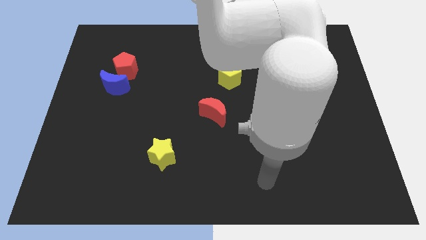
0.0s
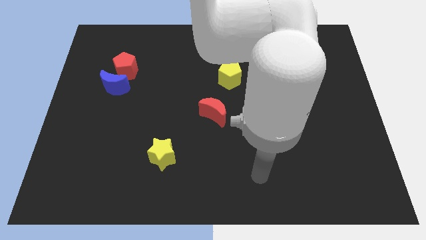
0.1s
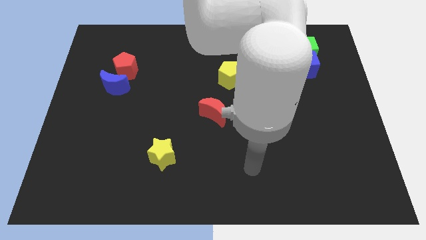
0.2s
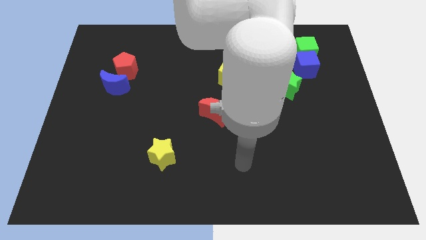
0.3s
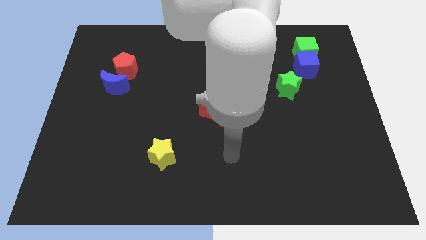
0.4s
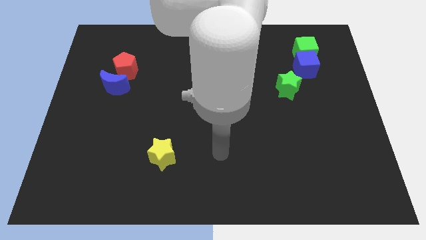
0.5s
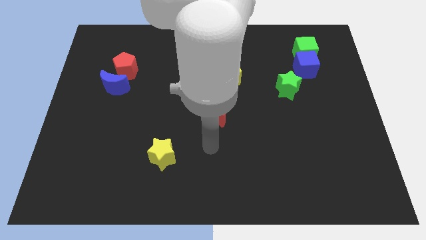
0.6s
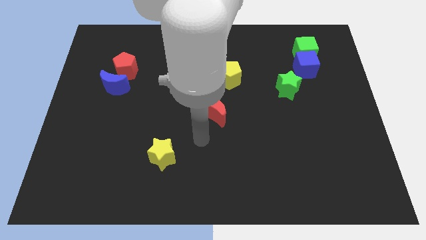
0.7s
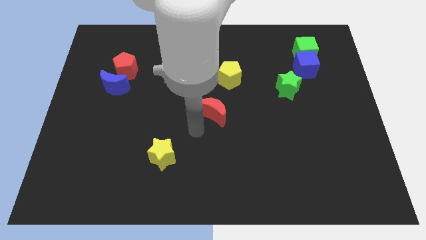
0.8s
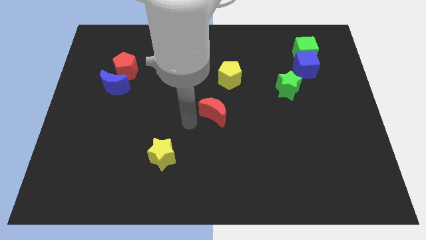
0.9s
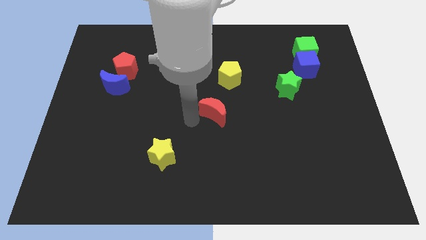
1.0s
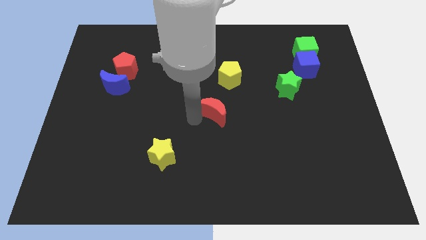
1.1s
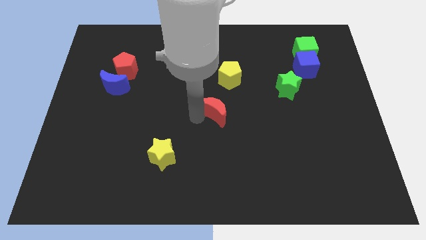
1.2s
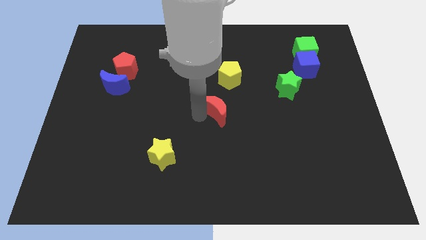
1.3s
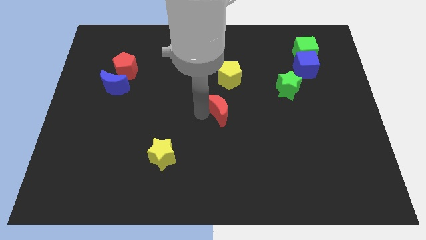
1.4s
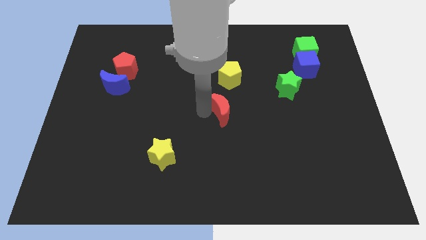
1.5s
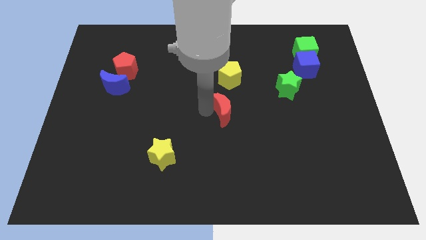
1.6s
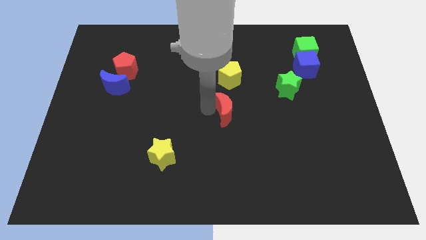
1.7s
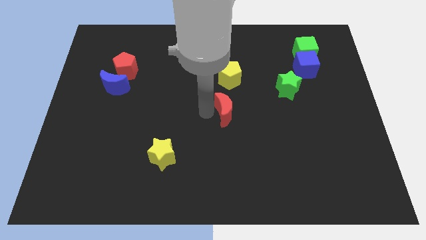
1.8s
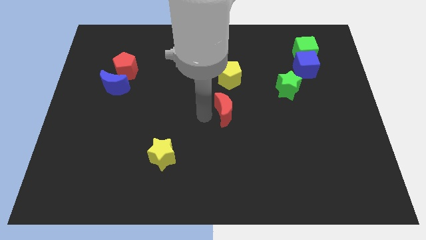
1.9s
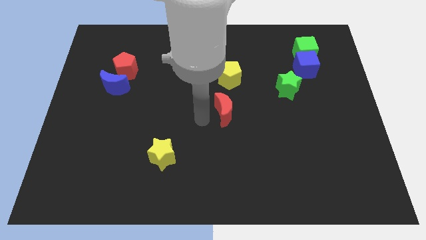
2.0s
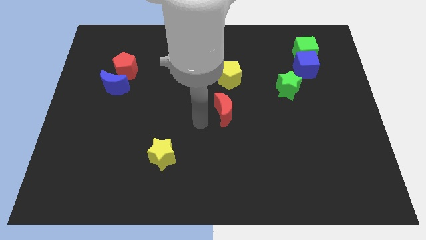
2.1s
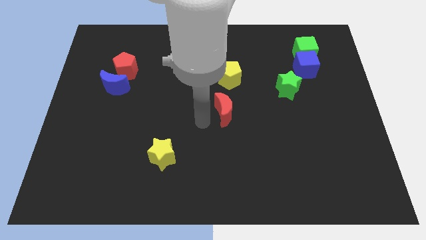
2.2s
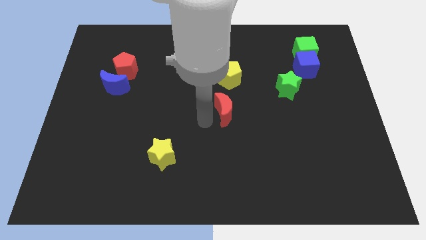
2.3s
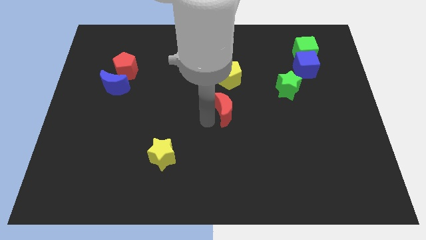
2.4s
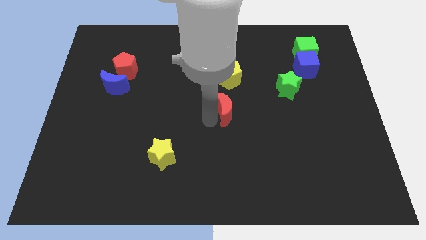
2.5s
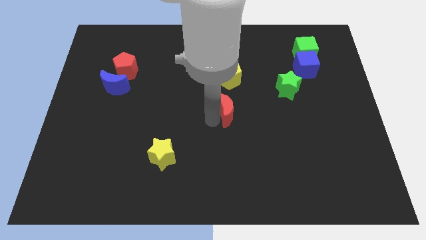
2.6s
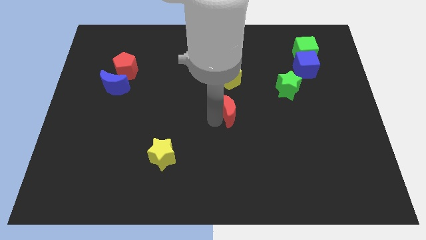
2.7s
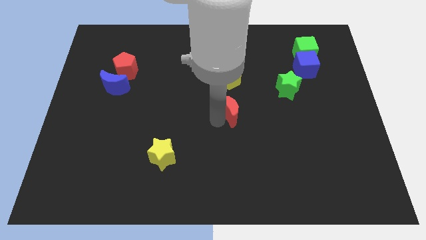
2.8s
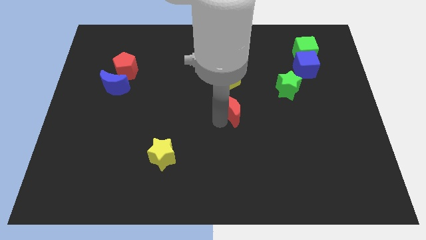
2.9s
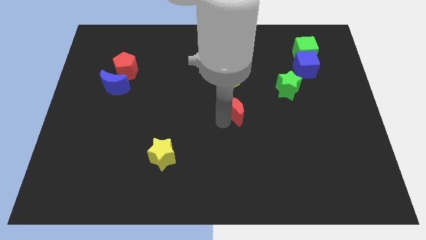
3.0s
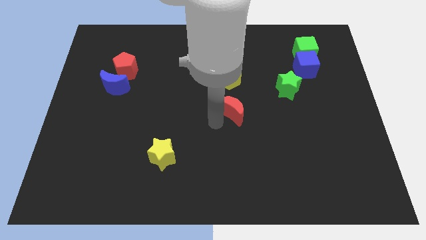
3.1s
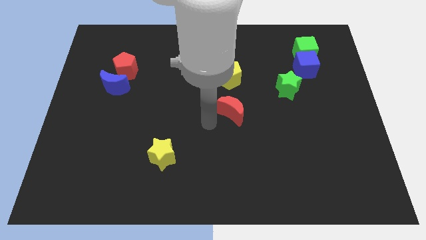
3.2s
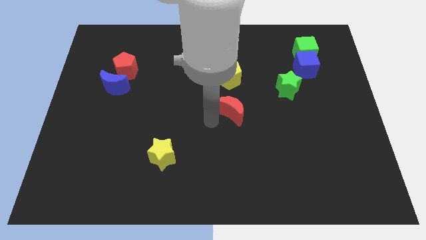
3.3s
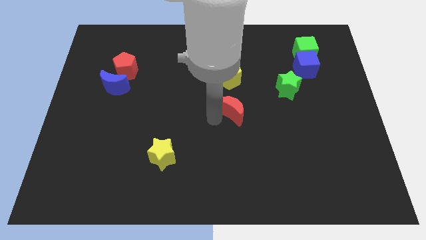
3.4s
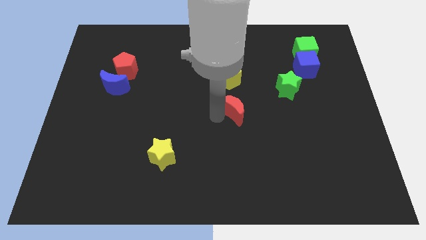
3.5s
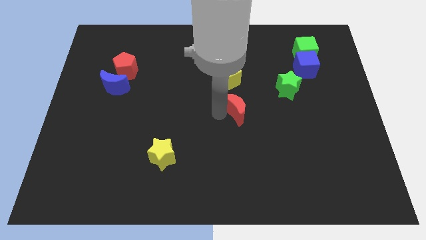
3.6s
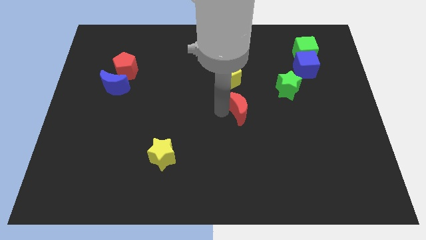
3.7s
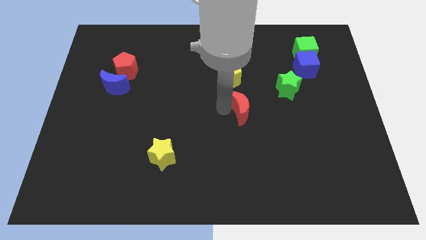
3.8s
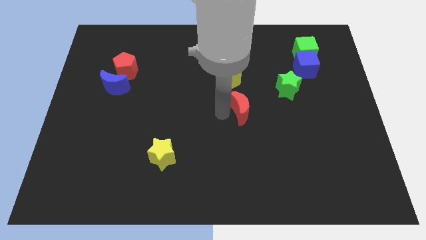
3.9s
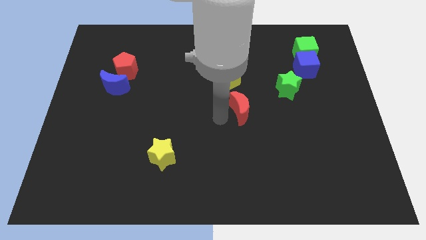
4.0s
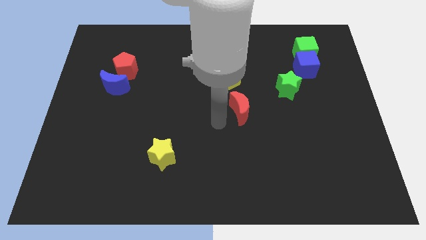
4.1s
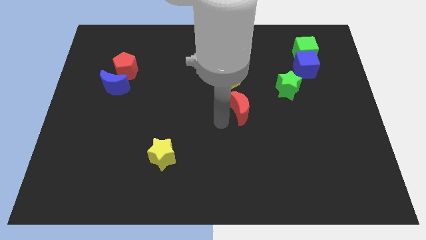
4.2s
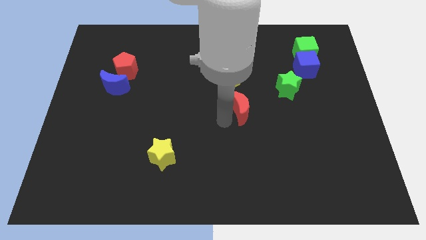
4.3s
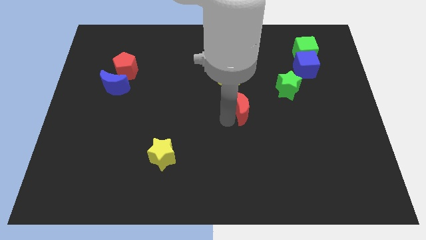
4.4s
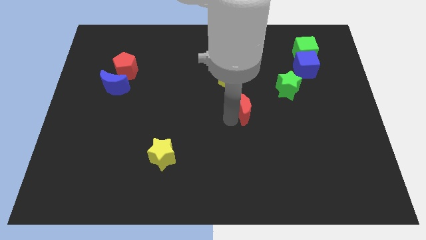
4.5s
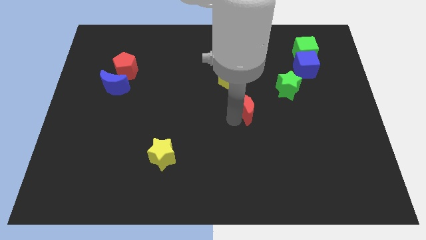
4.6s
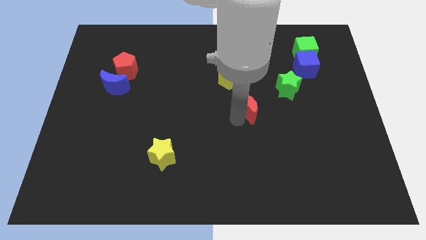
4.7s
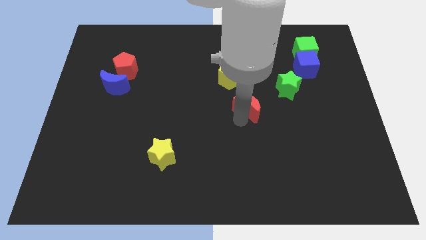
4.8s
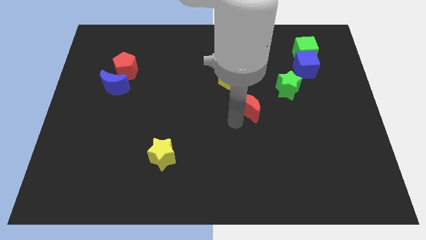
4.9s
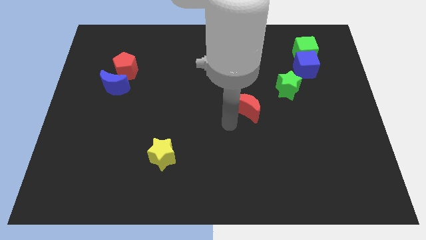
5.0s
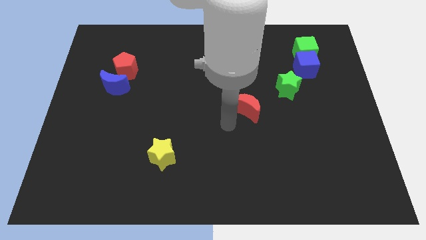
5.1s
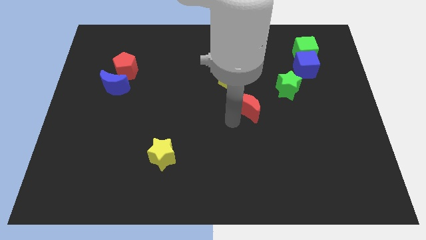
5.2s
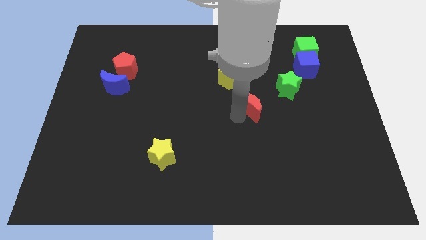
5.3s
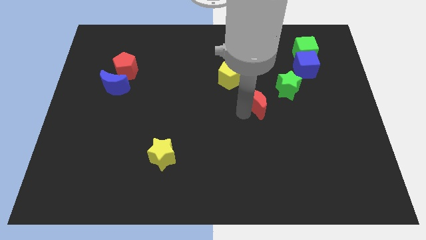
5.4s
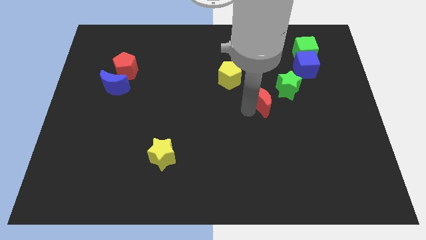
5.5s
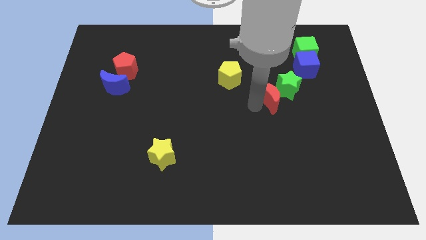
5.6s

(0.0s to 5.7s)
slide the red moon towards the green star

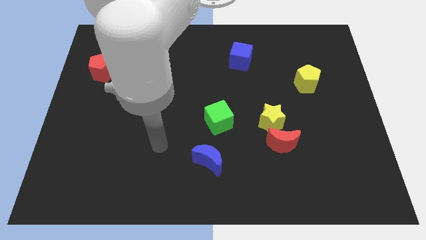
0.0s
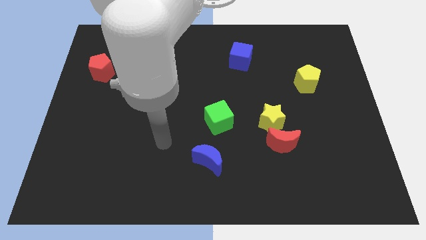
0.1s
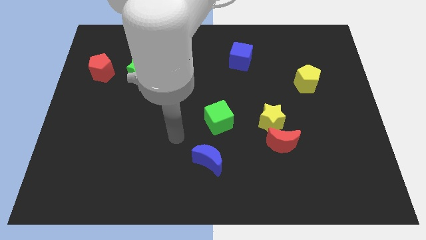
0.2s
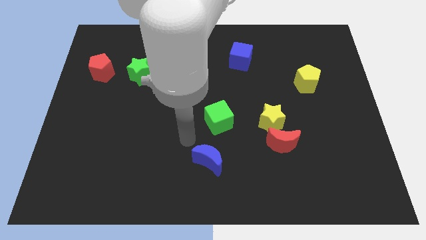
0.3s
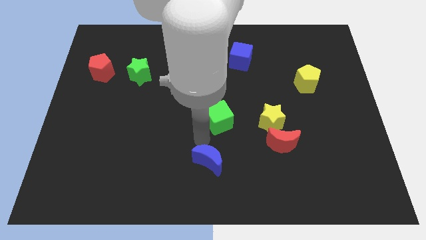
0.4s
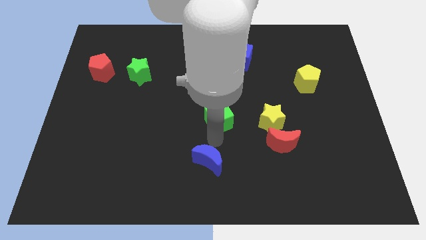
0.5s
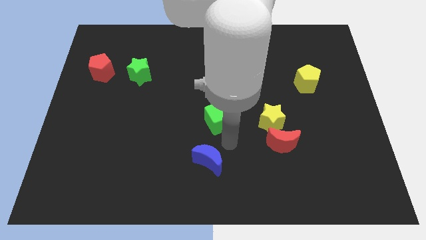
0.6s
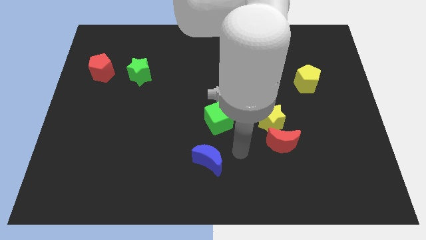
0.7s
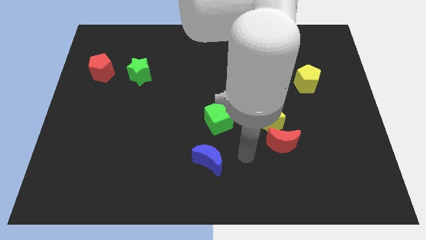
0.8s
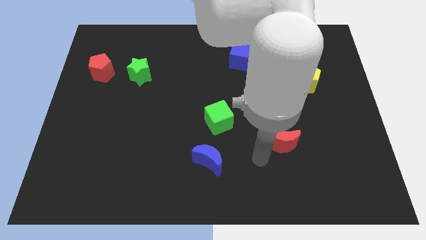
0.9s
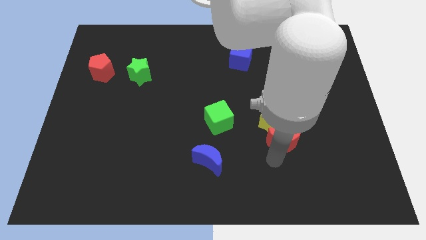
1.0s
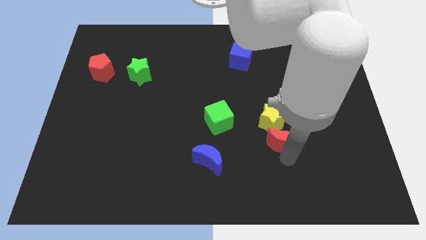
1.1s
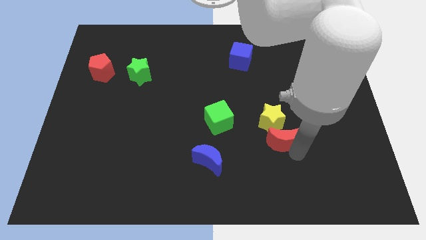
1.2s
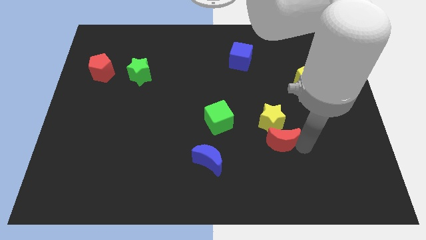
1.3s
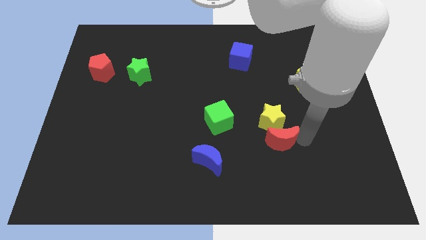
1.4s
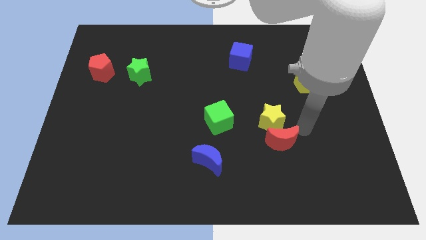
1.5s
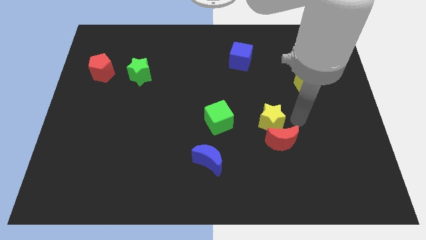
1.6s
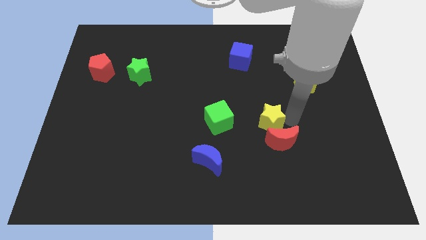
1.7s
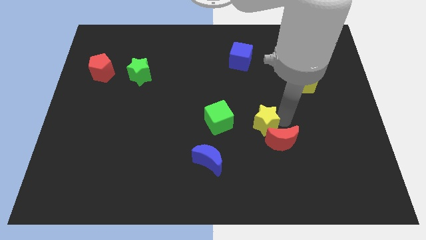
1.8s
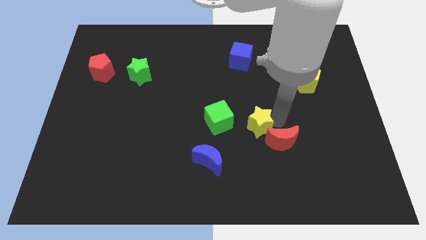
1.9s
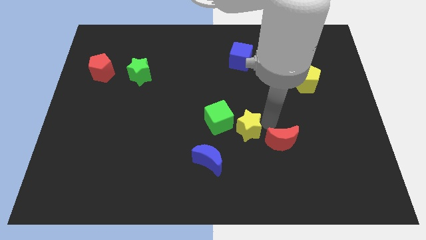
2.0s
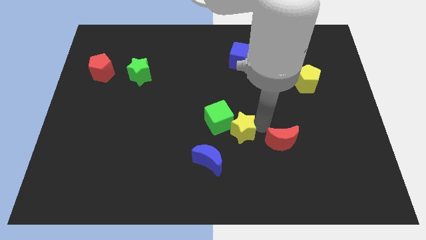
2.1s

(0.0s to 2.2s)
push the yellow star next to the green cube
